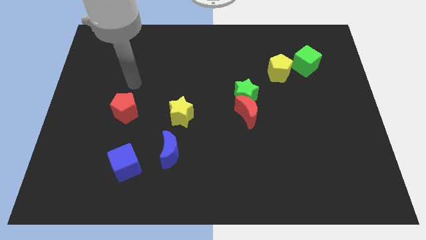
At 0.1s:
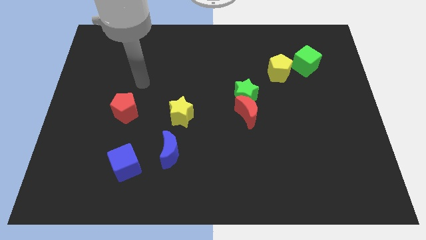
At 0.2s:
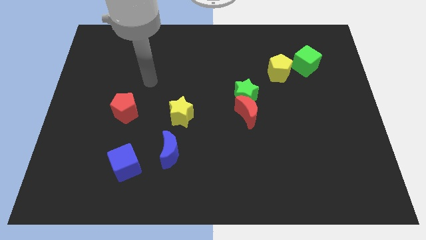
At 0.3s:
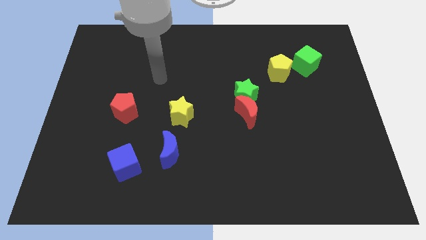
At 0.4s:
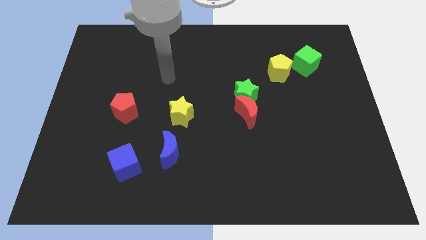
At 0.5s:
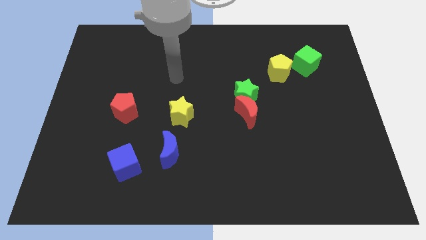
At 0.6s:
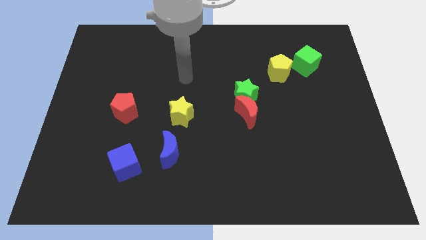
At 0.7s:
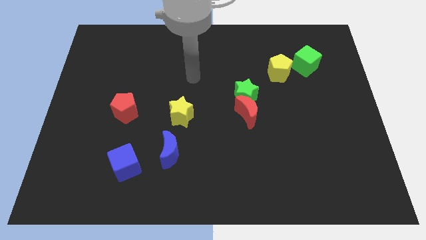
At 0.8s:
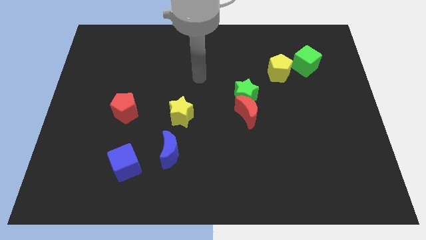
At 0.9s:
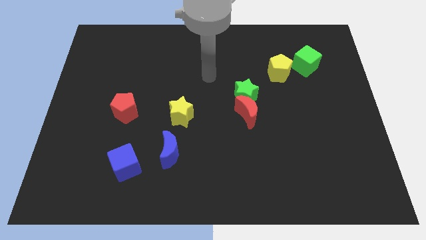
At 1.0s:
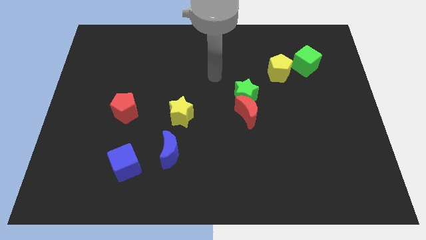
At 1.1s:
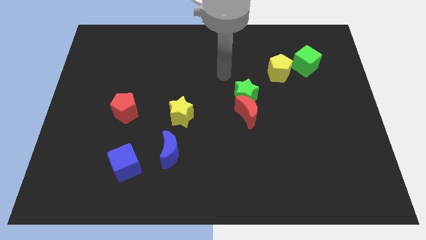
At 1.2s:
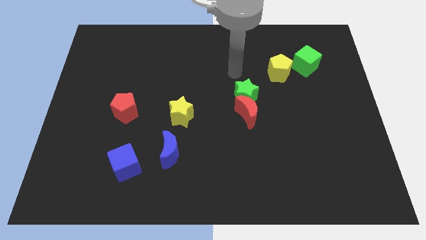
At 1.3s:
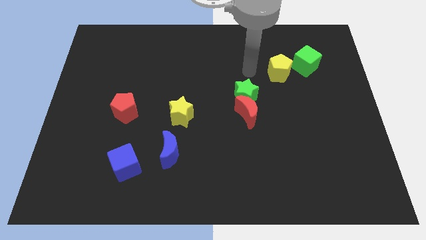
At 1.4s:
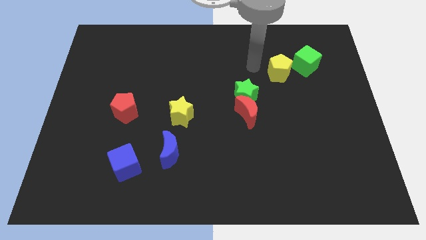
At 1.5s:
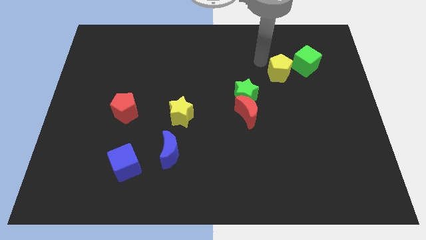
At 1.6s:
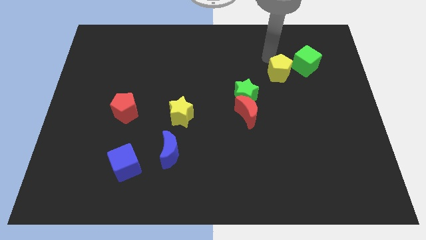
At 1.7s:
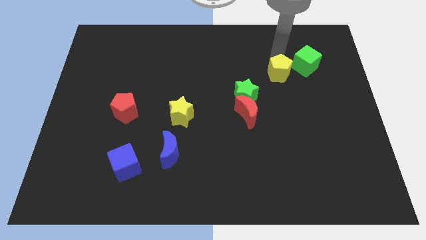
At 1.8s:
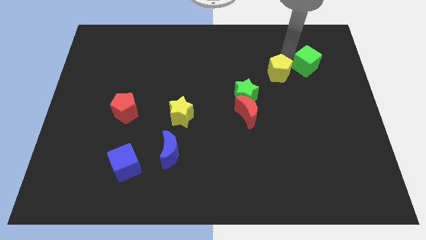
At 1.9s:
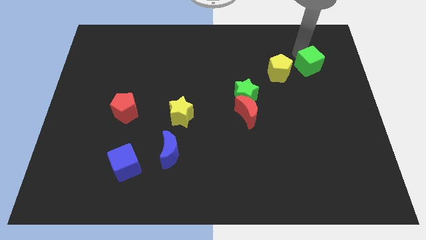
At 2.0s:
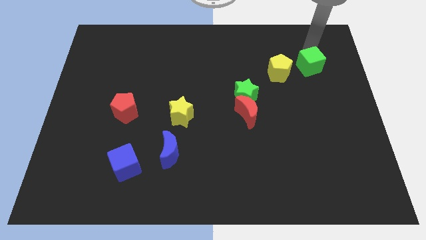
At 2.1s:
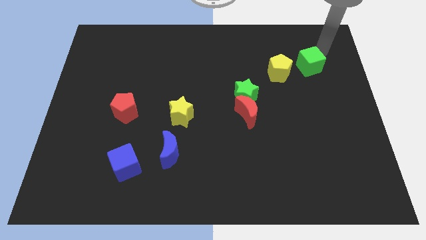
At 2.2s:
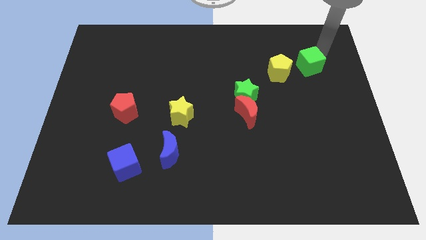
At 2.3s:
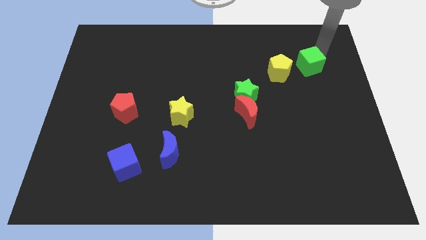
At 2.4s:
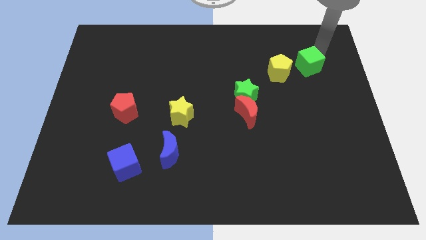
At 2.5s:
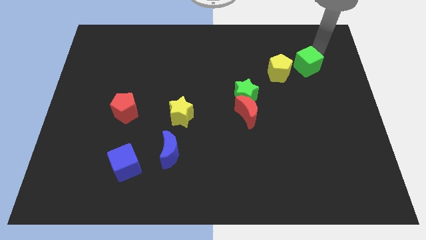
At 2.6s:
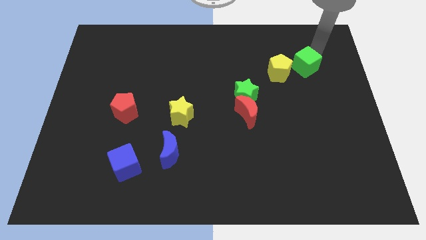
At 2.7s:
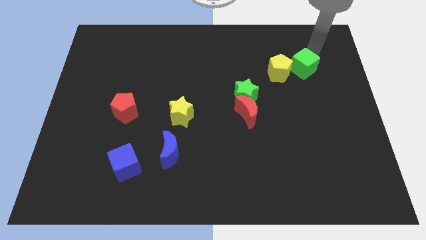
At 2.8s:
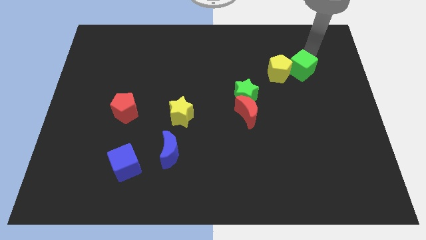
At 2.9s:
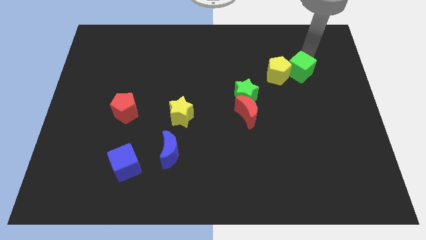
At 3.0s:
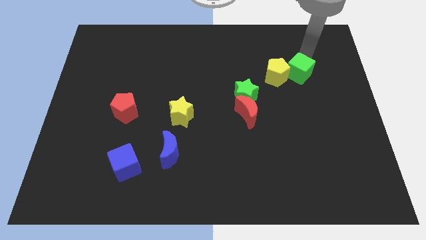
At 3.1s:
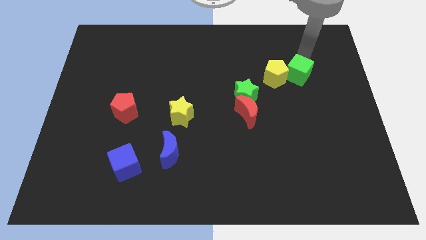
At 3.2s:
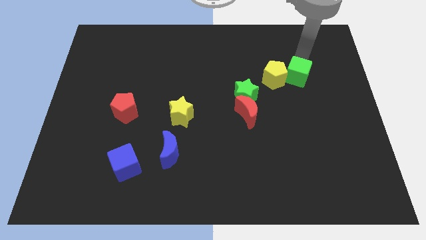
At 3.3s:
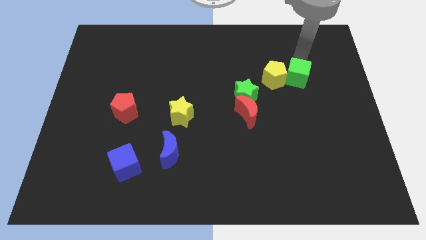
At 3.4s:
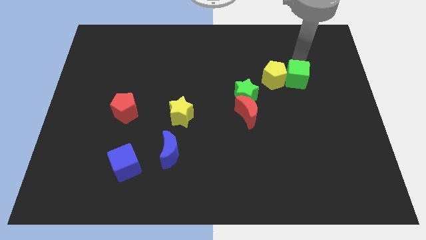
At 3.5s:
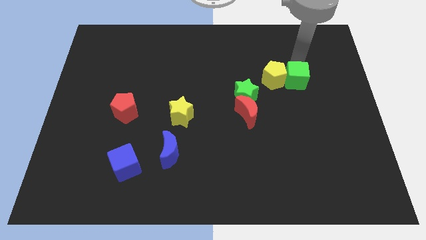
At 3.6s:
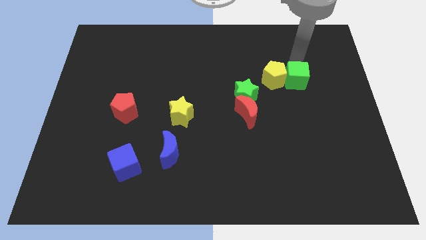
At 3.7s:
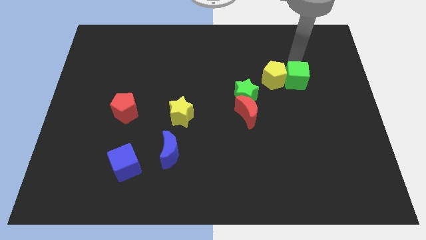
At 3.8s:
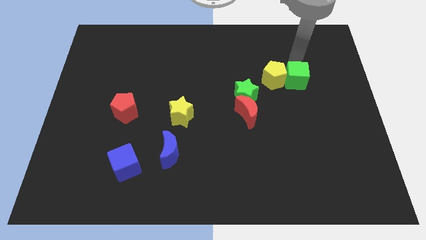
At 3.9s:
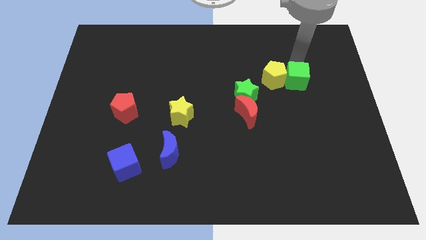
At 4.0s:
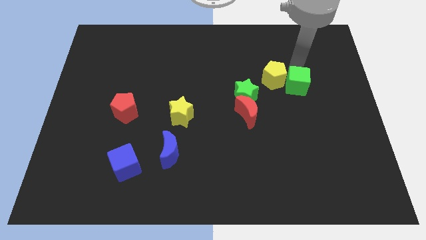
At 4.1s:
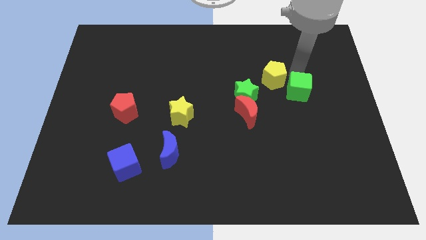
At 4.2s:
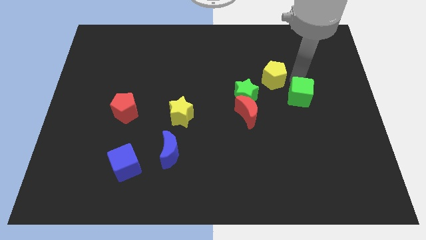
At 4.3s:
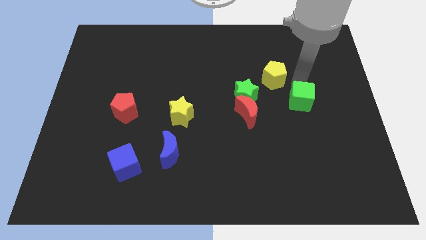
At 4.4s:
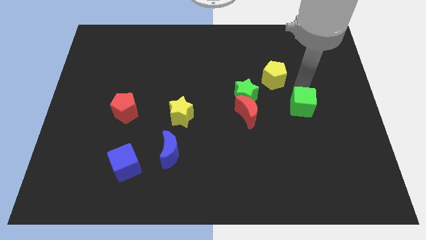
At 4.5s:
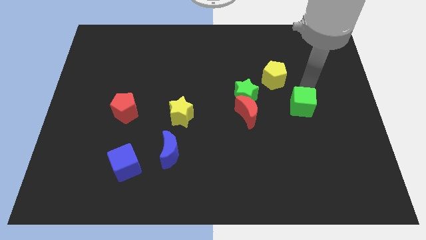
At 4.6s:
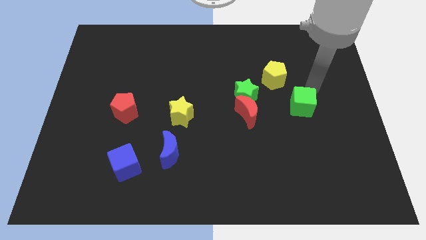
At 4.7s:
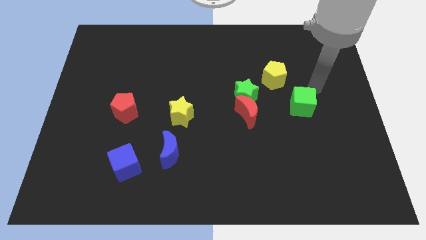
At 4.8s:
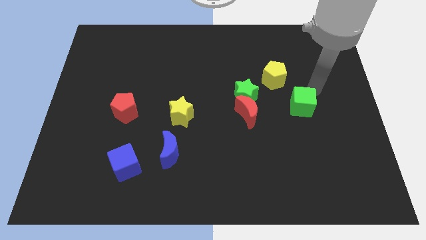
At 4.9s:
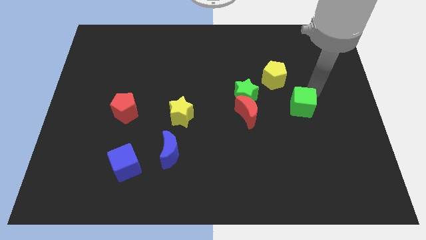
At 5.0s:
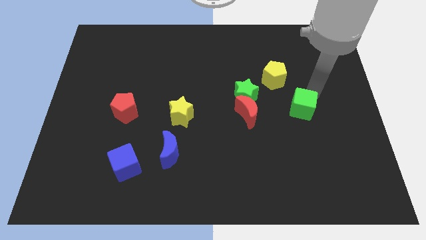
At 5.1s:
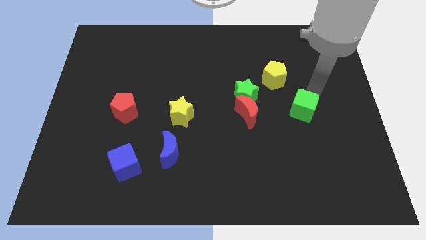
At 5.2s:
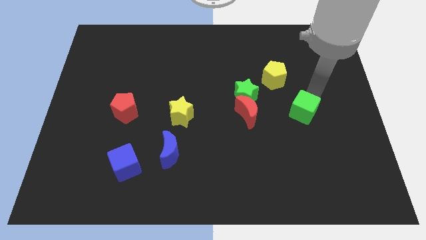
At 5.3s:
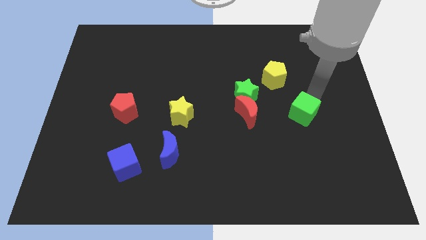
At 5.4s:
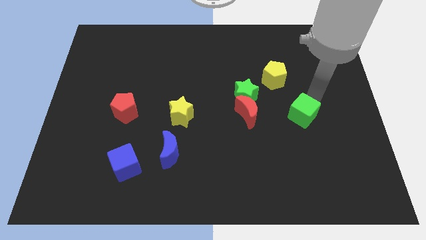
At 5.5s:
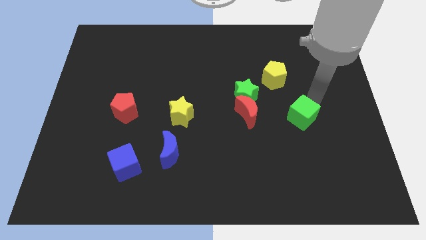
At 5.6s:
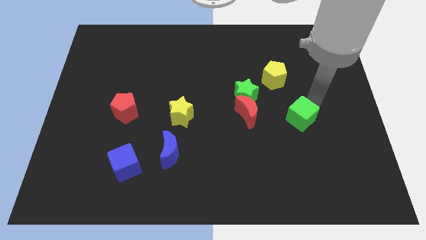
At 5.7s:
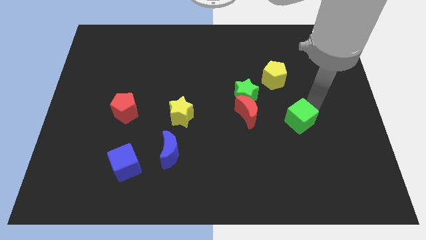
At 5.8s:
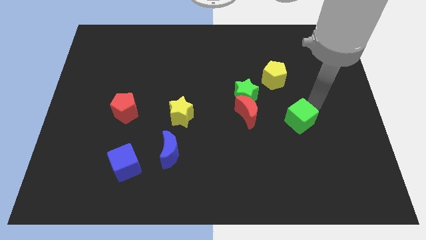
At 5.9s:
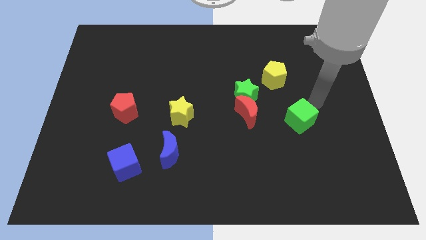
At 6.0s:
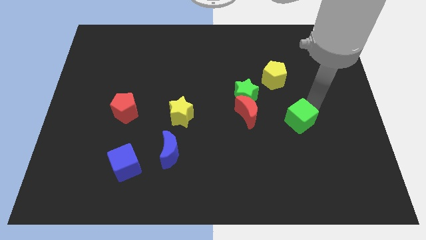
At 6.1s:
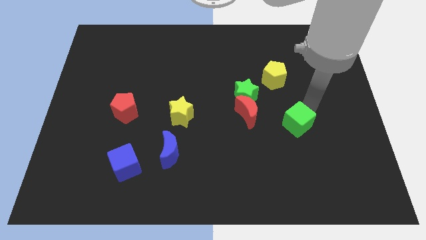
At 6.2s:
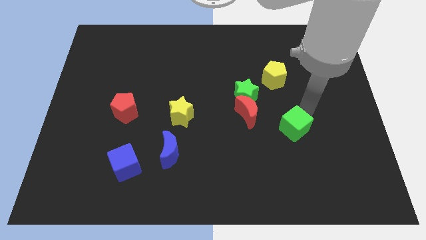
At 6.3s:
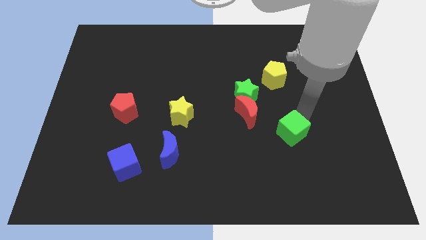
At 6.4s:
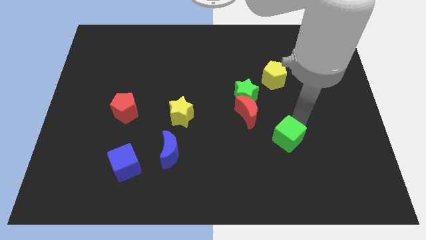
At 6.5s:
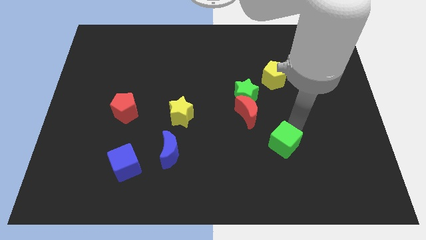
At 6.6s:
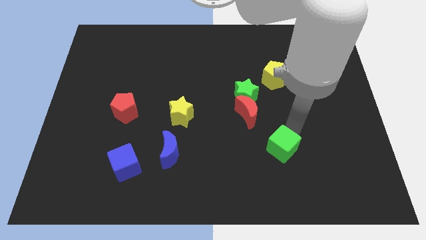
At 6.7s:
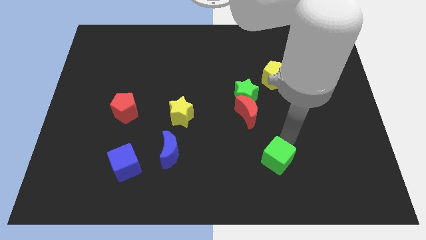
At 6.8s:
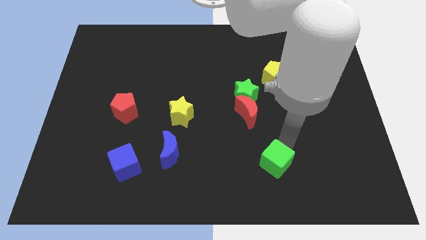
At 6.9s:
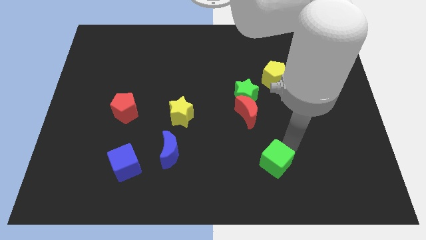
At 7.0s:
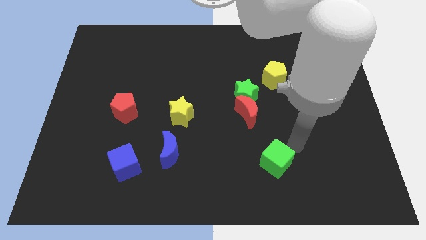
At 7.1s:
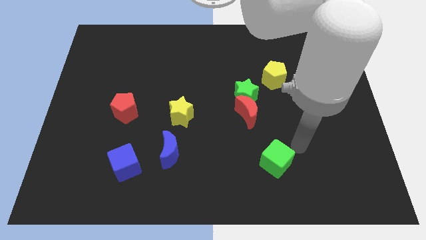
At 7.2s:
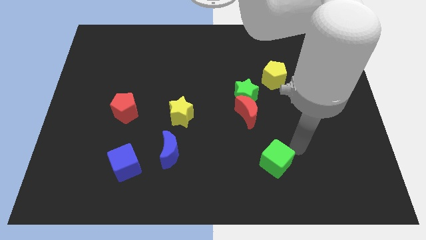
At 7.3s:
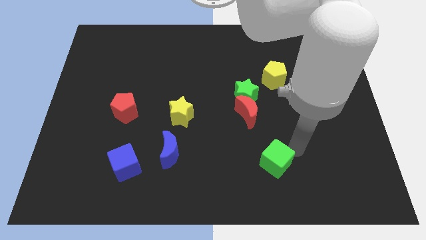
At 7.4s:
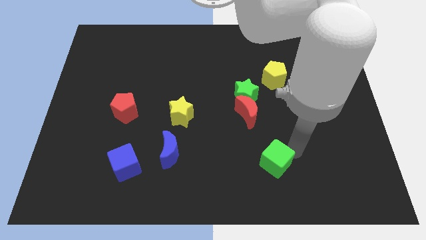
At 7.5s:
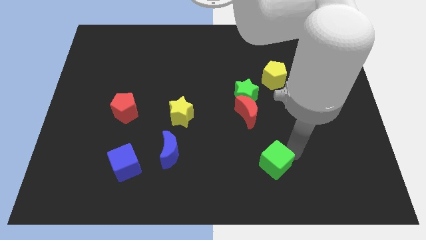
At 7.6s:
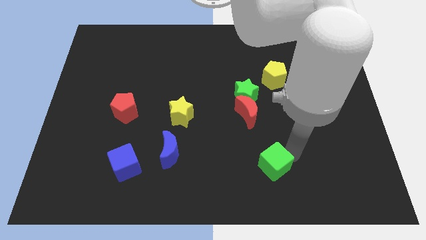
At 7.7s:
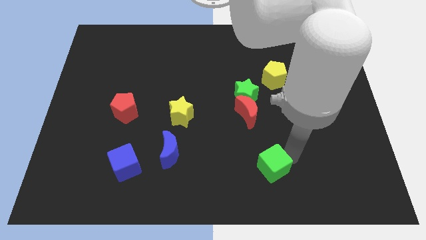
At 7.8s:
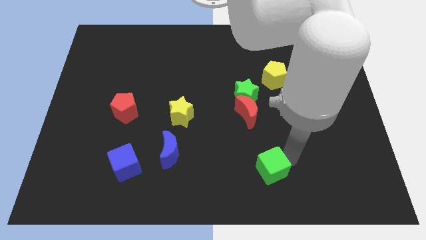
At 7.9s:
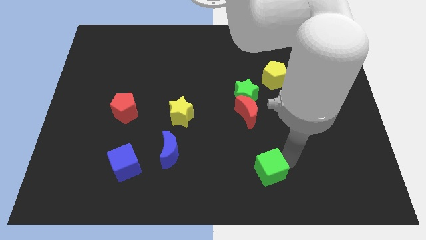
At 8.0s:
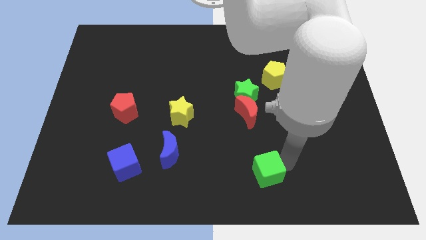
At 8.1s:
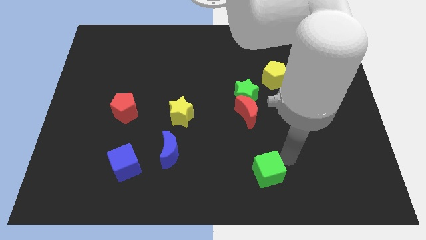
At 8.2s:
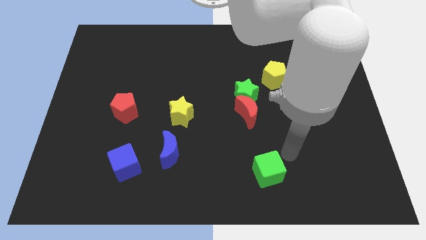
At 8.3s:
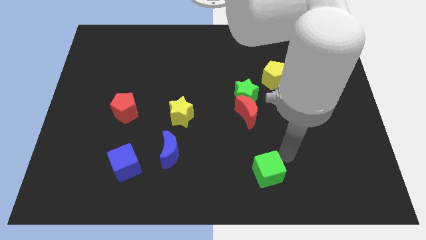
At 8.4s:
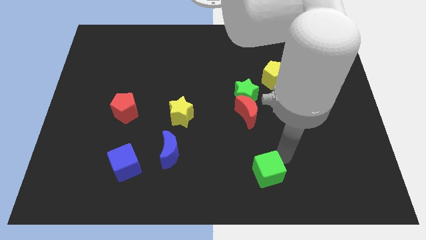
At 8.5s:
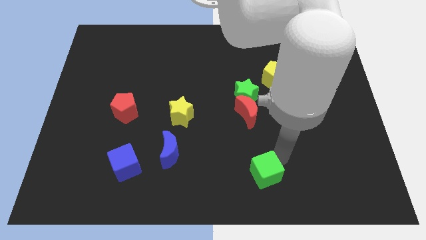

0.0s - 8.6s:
push the green cube to the bottom
